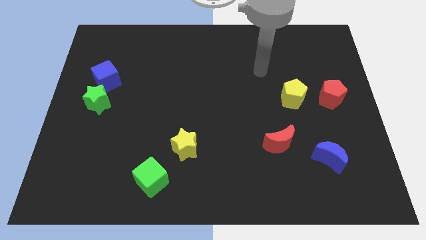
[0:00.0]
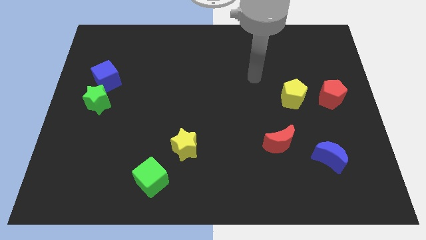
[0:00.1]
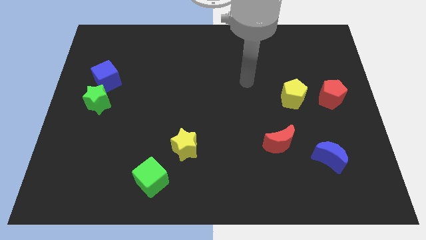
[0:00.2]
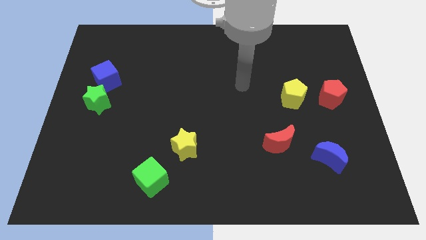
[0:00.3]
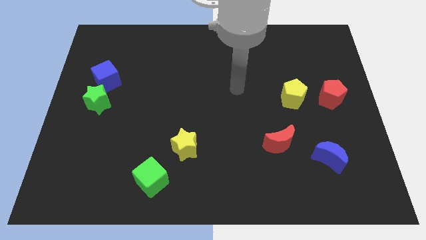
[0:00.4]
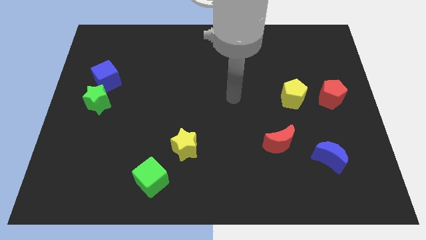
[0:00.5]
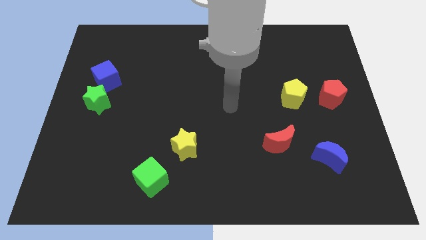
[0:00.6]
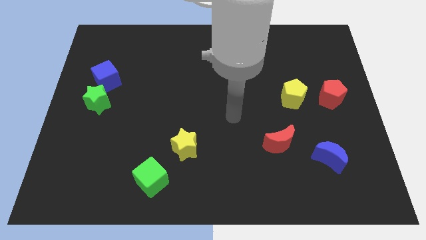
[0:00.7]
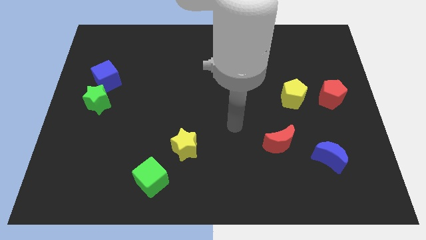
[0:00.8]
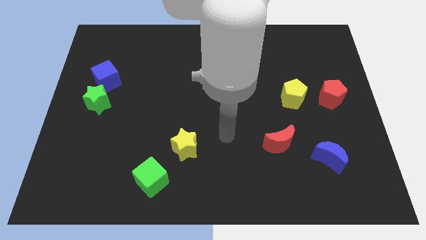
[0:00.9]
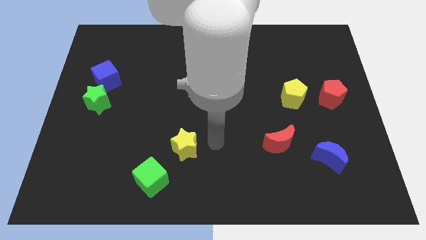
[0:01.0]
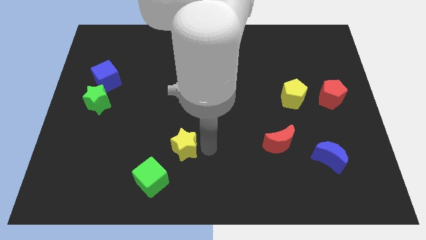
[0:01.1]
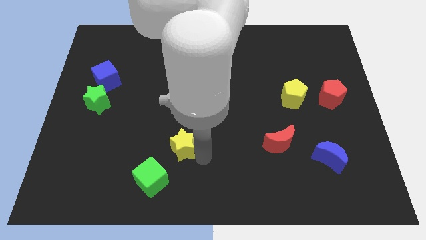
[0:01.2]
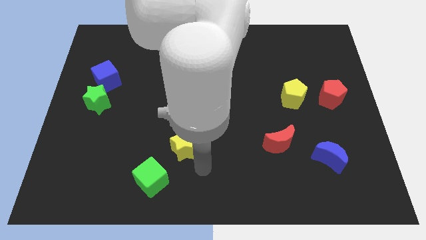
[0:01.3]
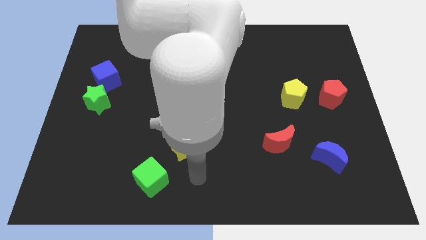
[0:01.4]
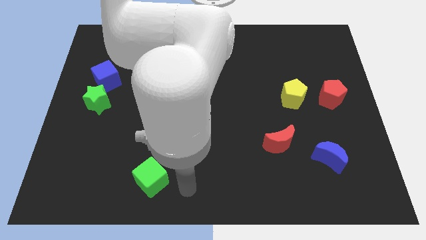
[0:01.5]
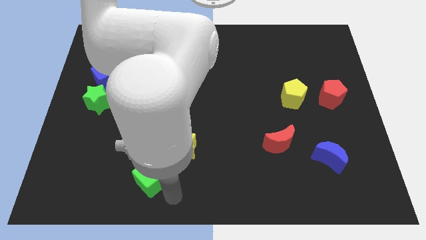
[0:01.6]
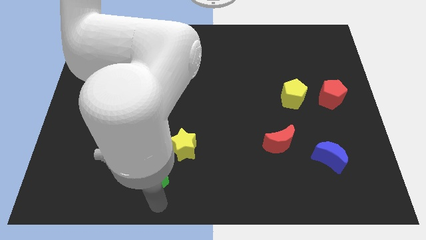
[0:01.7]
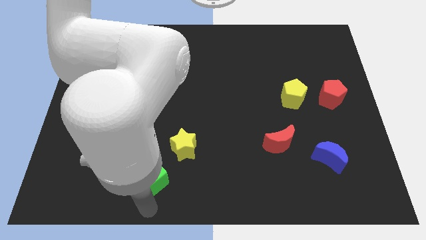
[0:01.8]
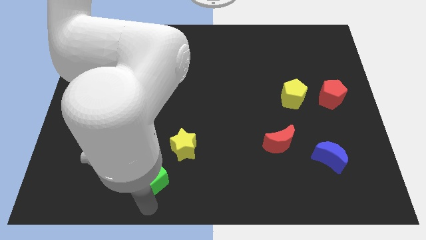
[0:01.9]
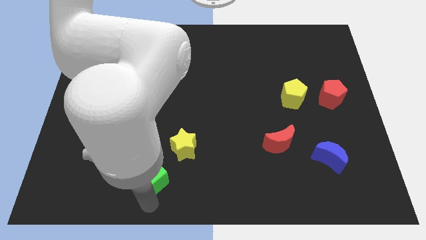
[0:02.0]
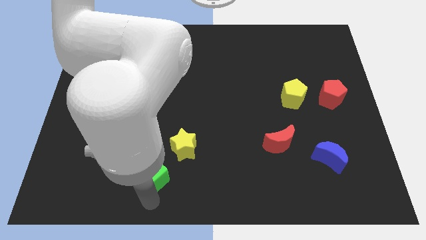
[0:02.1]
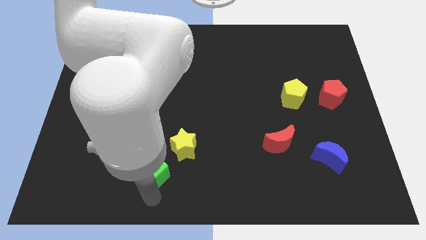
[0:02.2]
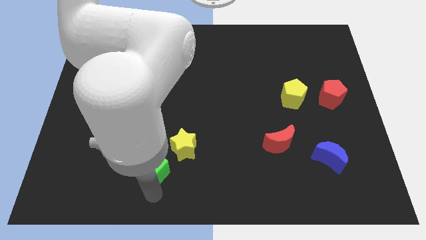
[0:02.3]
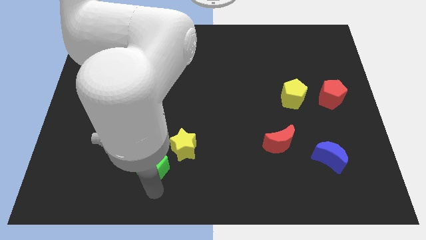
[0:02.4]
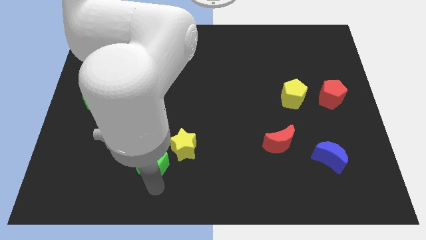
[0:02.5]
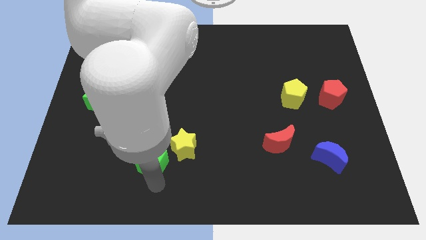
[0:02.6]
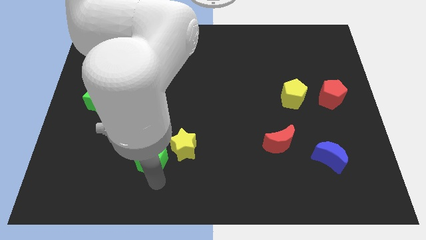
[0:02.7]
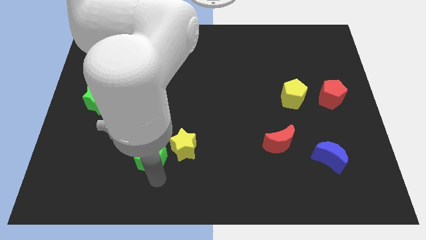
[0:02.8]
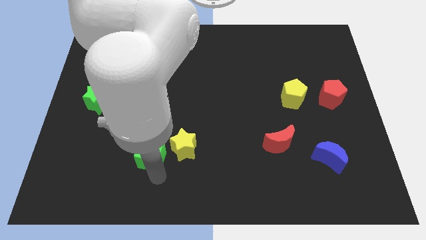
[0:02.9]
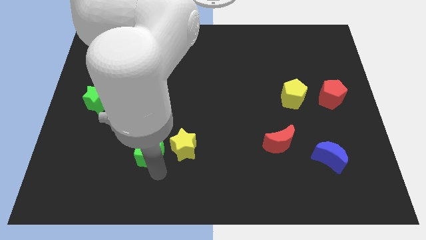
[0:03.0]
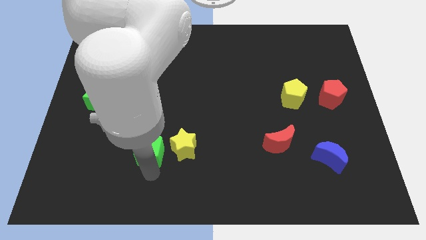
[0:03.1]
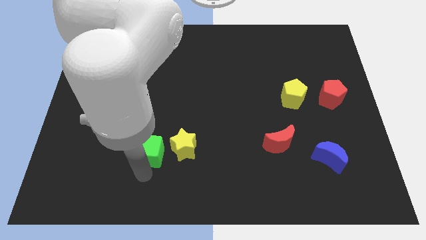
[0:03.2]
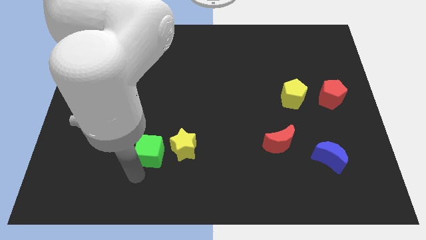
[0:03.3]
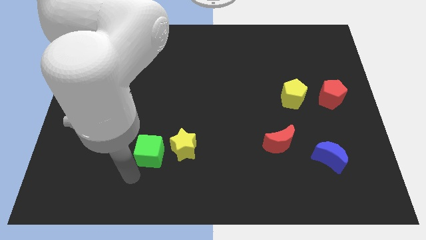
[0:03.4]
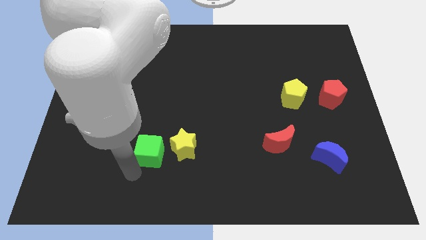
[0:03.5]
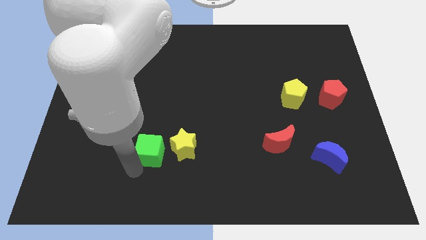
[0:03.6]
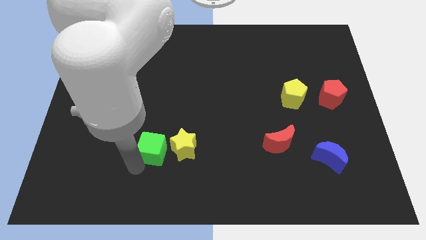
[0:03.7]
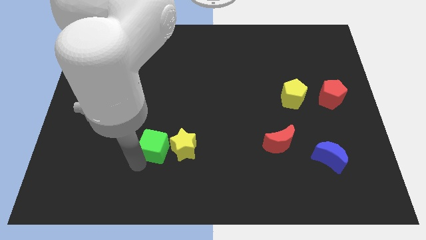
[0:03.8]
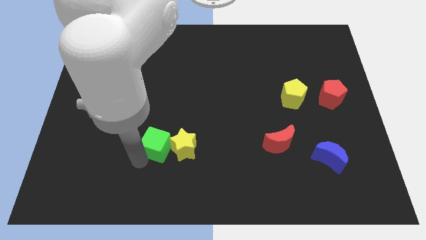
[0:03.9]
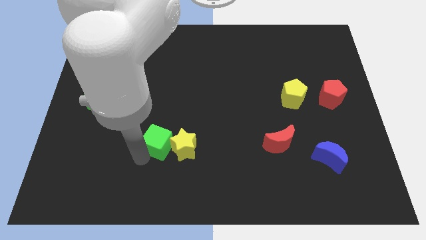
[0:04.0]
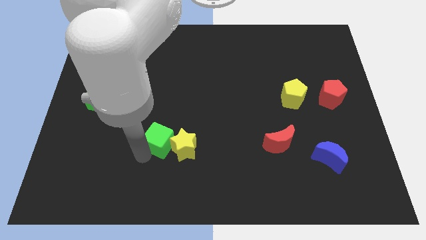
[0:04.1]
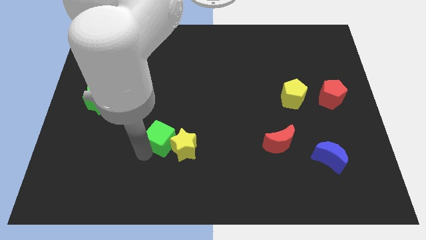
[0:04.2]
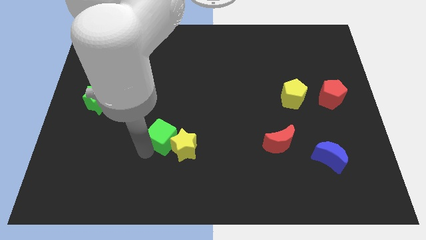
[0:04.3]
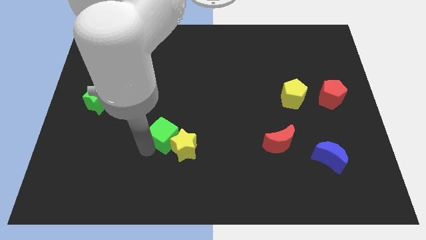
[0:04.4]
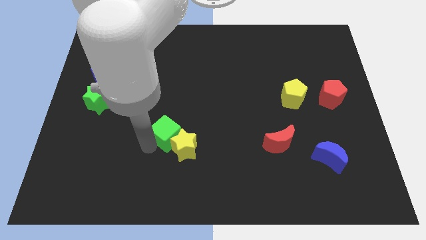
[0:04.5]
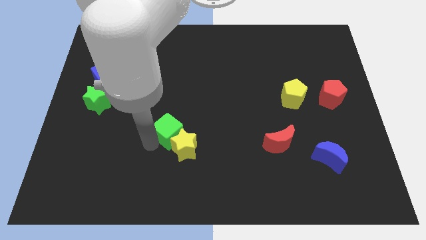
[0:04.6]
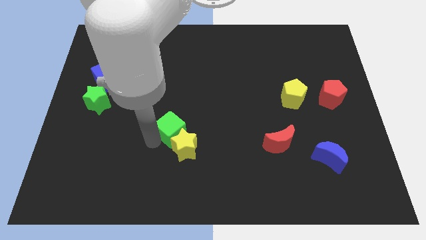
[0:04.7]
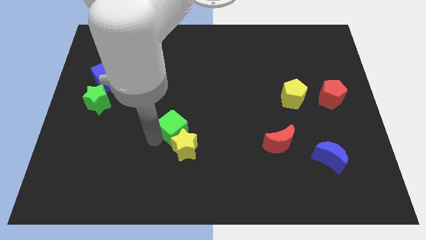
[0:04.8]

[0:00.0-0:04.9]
push the green cube to the center

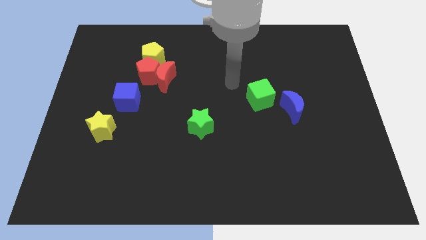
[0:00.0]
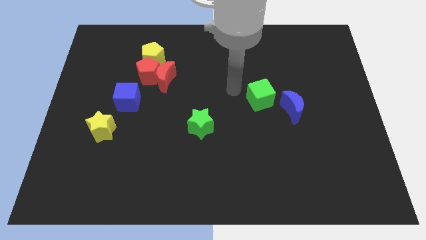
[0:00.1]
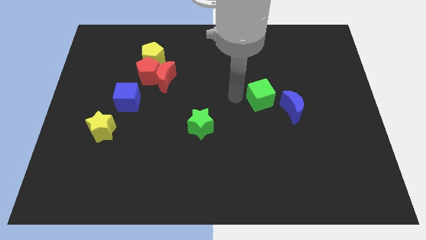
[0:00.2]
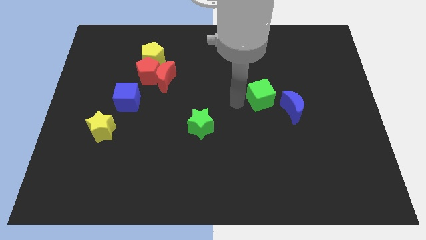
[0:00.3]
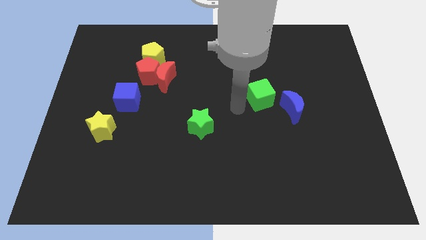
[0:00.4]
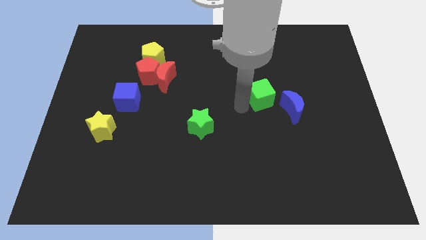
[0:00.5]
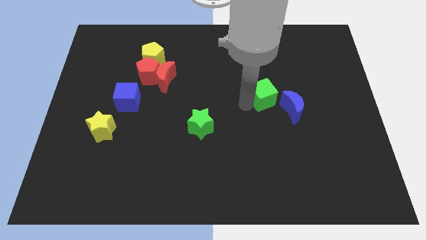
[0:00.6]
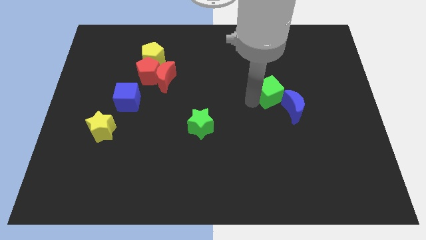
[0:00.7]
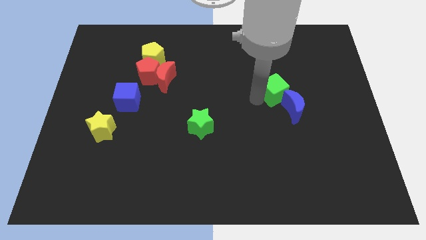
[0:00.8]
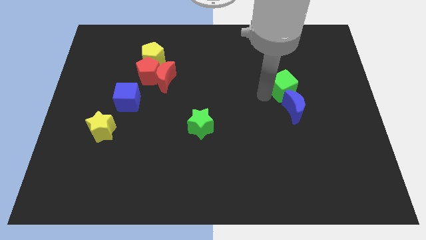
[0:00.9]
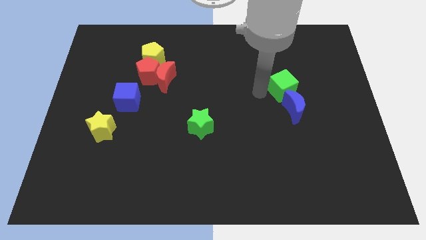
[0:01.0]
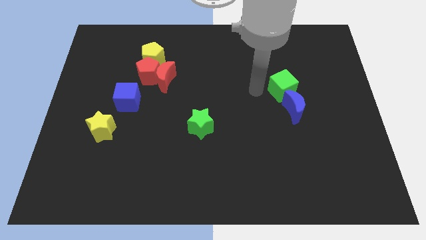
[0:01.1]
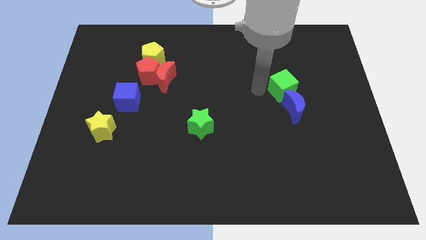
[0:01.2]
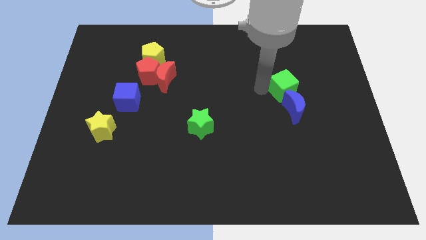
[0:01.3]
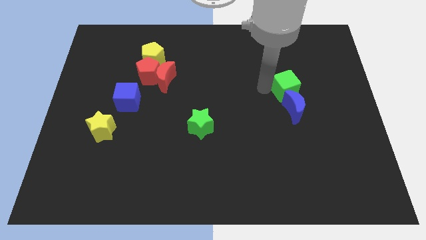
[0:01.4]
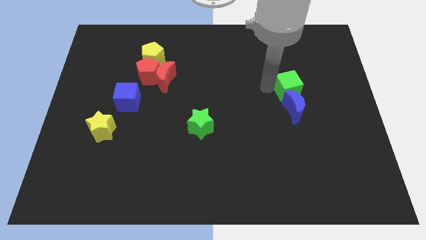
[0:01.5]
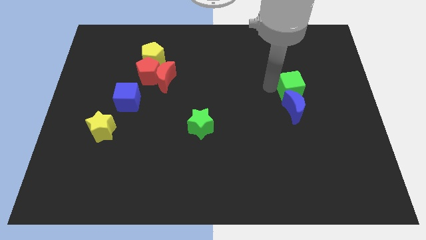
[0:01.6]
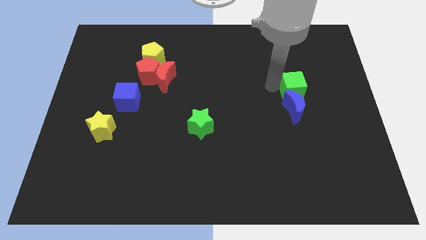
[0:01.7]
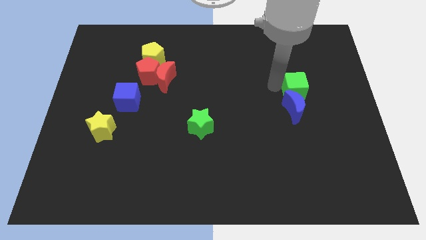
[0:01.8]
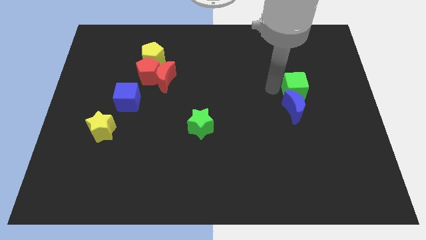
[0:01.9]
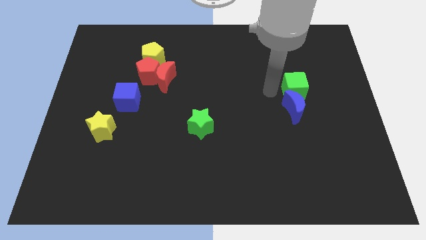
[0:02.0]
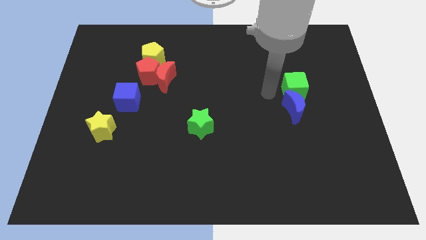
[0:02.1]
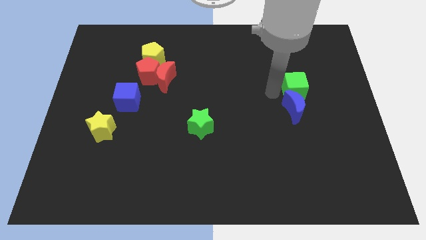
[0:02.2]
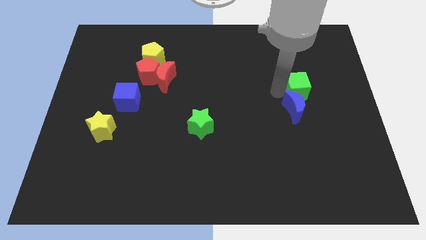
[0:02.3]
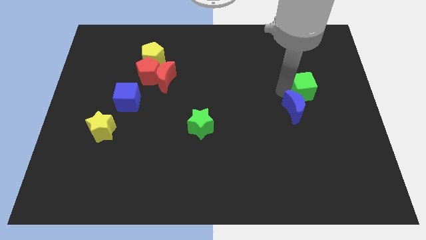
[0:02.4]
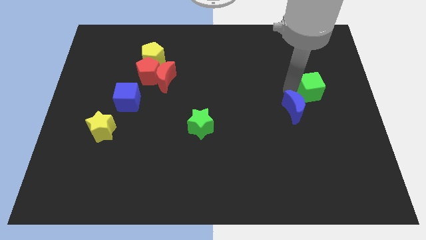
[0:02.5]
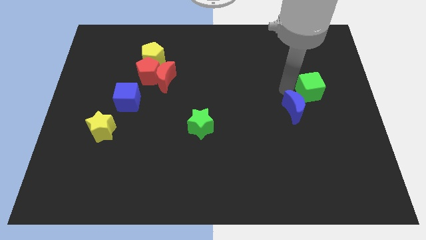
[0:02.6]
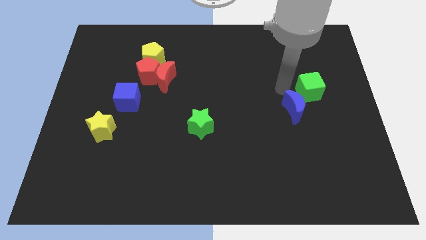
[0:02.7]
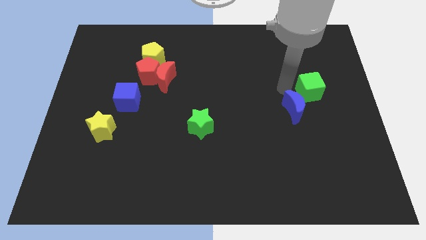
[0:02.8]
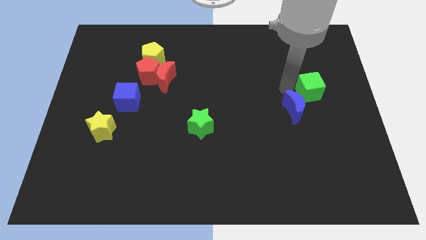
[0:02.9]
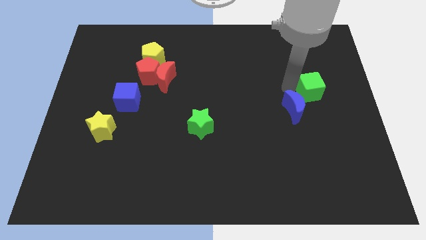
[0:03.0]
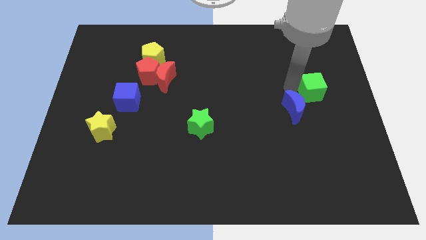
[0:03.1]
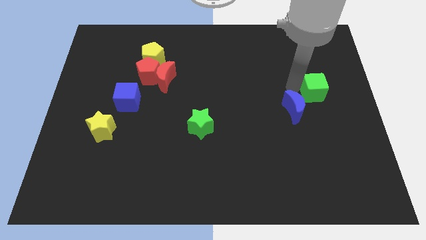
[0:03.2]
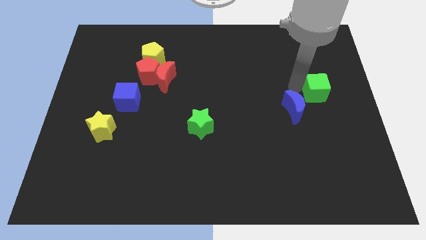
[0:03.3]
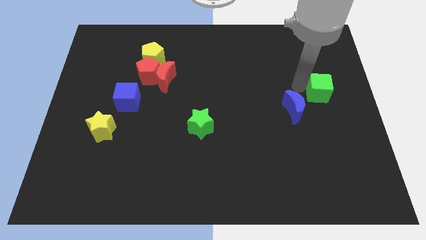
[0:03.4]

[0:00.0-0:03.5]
put the green cube to the right side of the board
